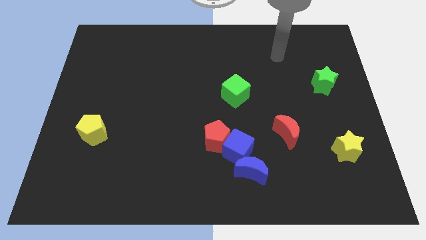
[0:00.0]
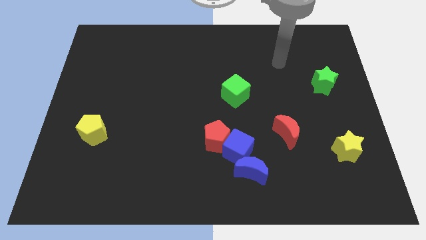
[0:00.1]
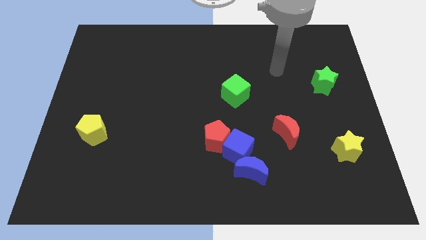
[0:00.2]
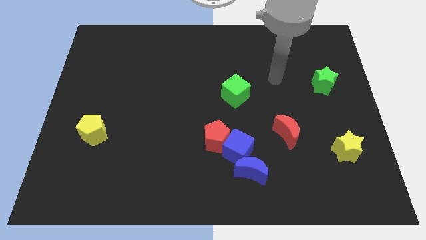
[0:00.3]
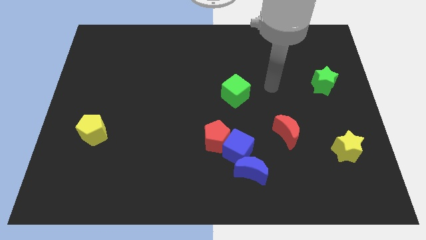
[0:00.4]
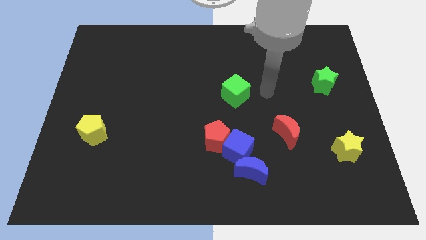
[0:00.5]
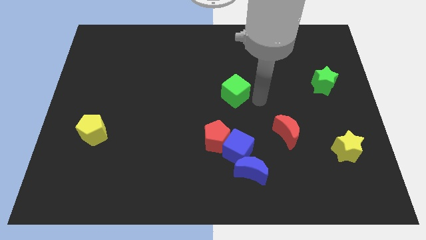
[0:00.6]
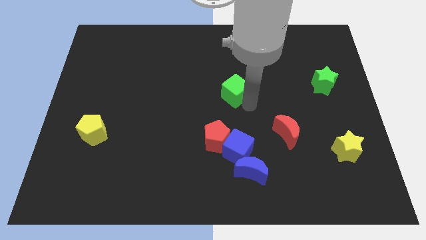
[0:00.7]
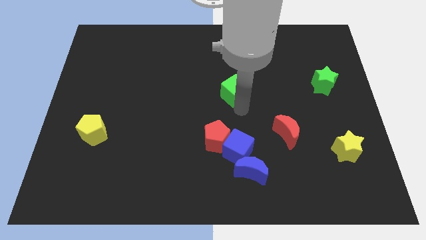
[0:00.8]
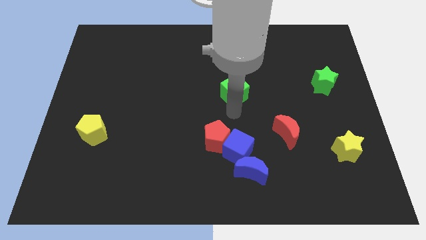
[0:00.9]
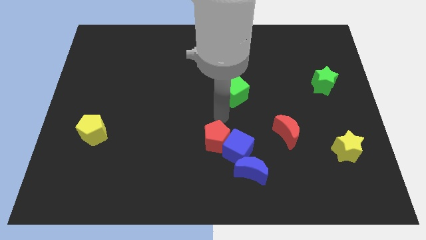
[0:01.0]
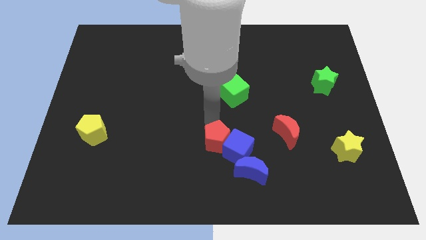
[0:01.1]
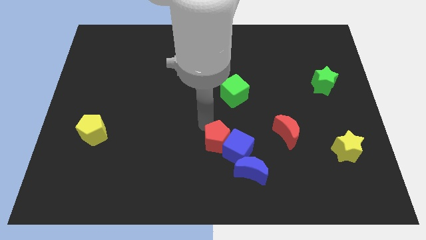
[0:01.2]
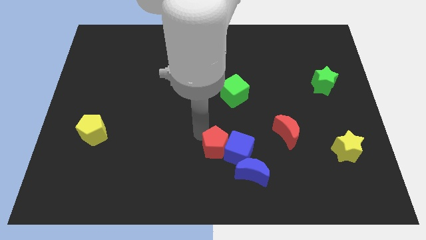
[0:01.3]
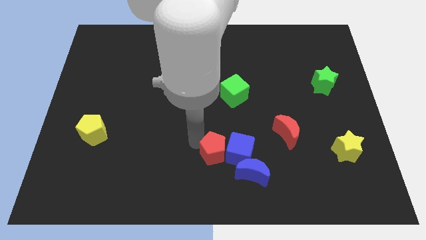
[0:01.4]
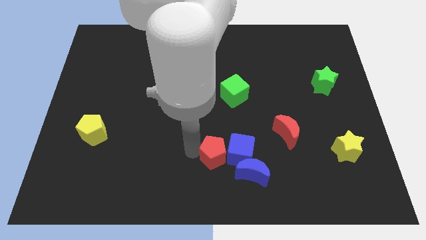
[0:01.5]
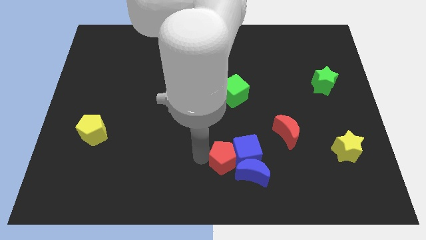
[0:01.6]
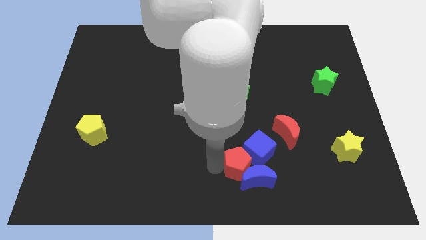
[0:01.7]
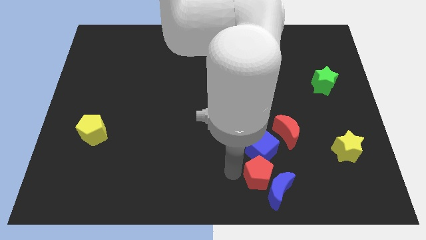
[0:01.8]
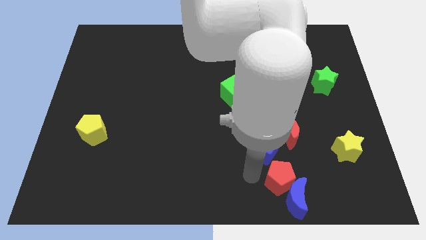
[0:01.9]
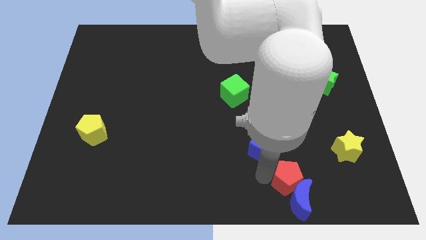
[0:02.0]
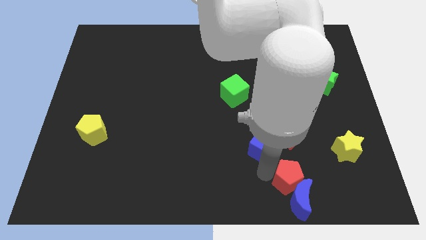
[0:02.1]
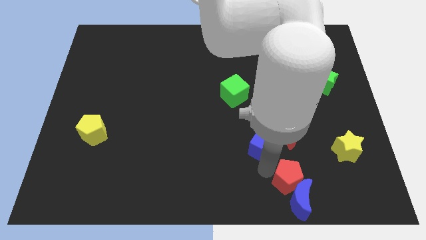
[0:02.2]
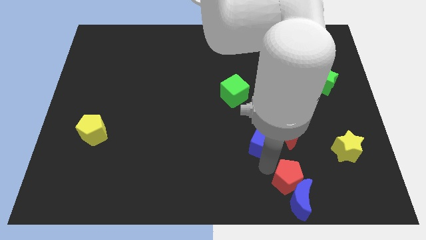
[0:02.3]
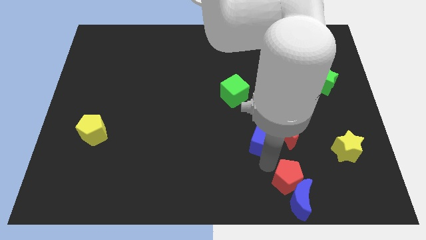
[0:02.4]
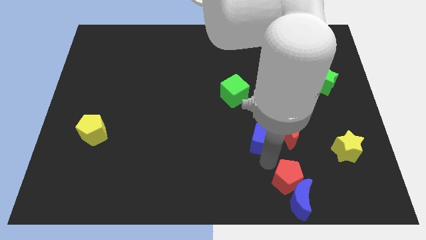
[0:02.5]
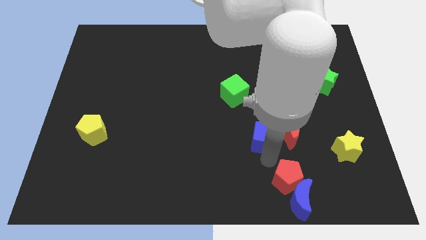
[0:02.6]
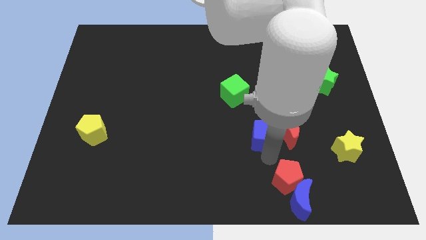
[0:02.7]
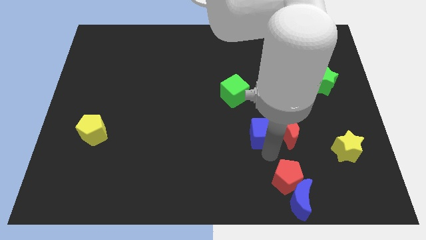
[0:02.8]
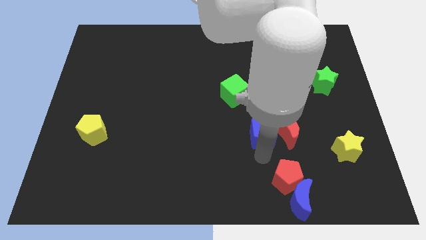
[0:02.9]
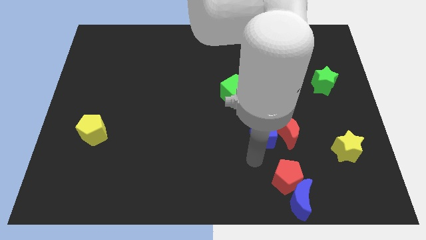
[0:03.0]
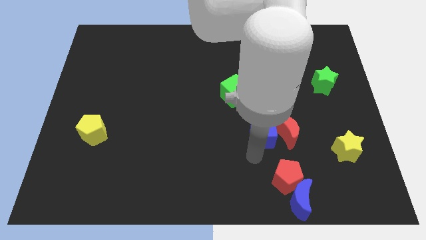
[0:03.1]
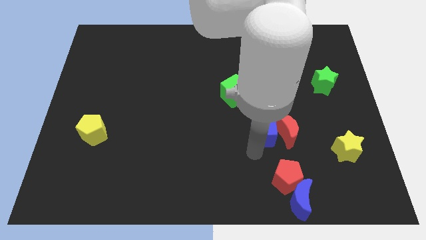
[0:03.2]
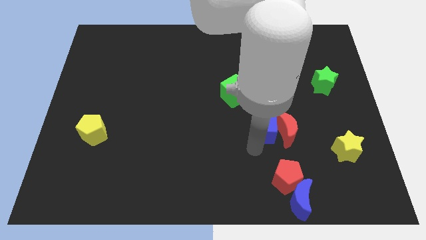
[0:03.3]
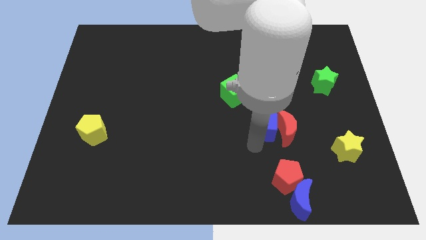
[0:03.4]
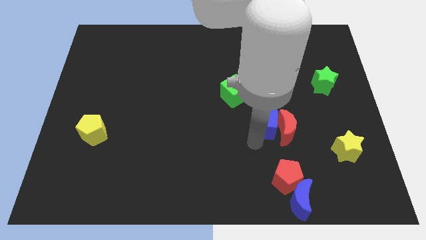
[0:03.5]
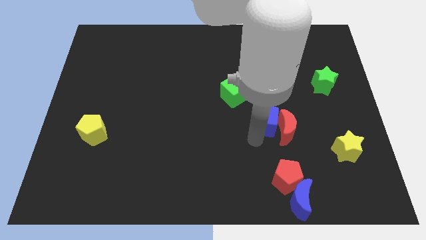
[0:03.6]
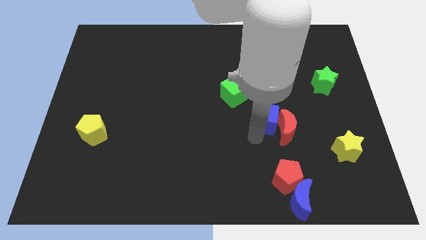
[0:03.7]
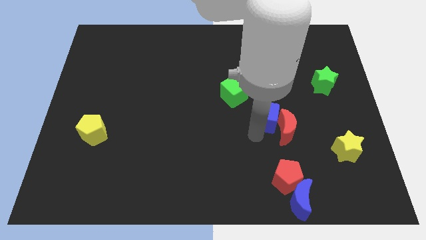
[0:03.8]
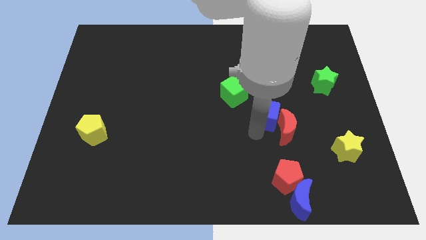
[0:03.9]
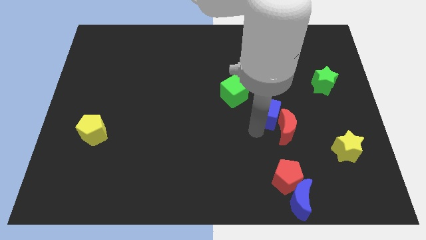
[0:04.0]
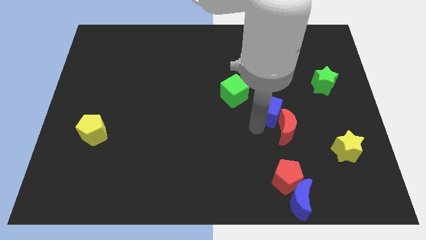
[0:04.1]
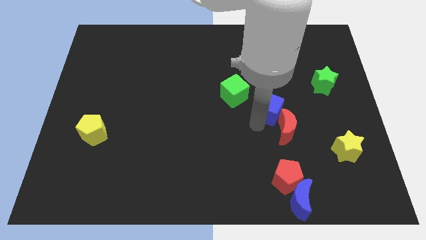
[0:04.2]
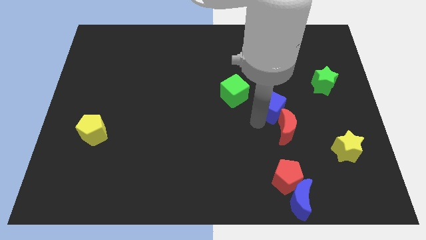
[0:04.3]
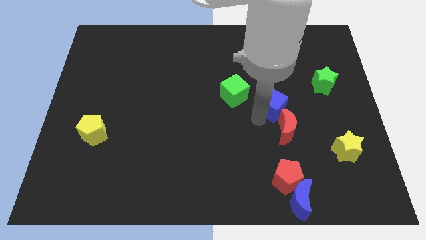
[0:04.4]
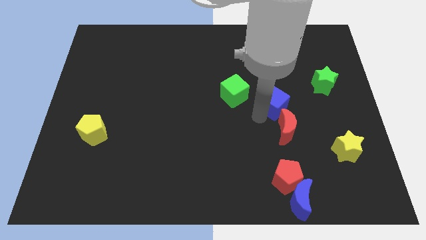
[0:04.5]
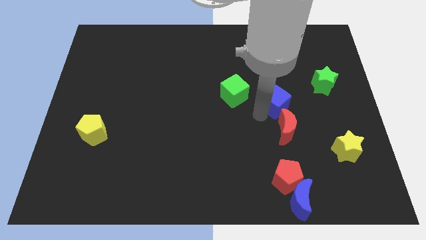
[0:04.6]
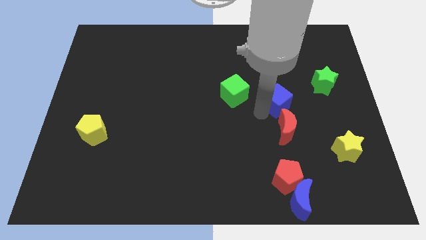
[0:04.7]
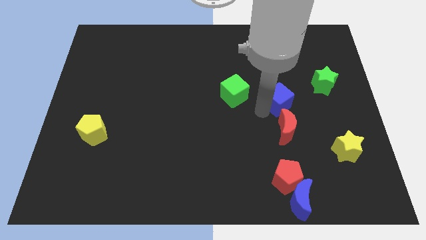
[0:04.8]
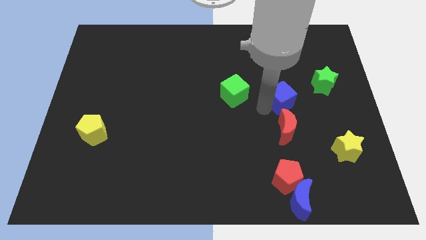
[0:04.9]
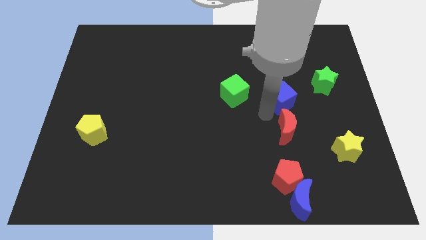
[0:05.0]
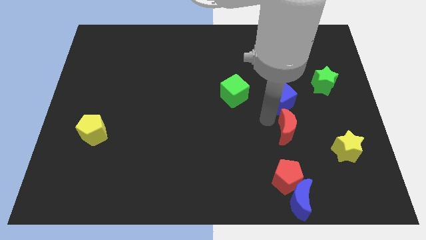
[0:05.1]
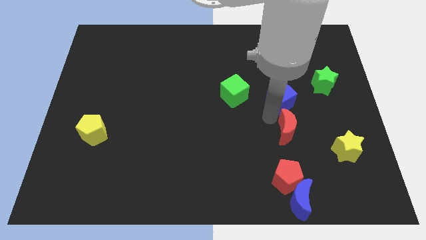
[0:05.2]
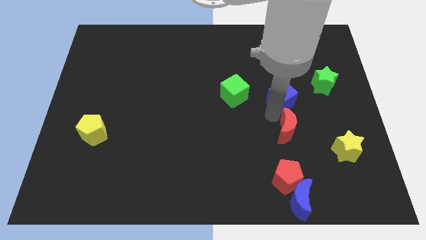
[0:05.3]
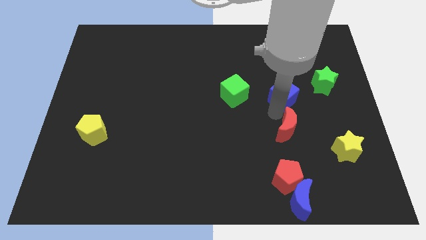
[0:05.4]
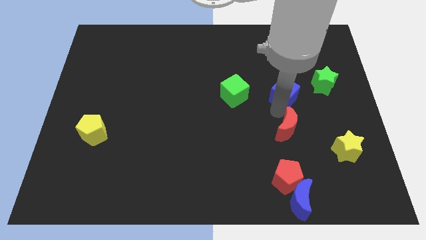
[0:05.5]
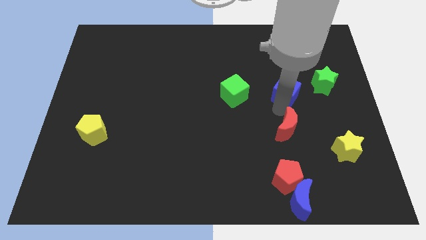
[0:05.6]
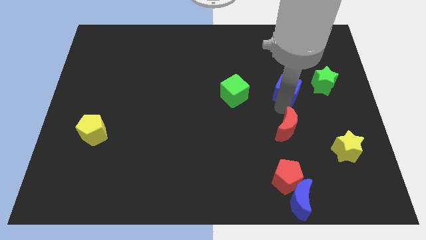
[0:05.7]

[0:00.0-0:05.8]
push the blue cube up and to the right diagonally

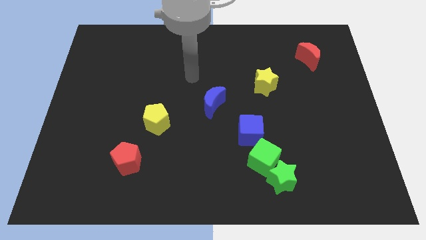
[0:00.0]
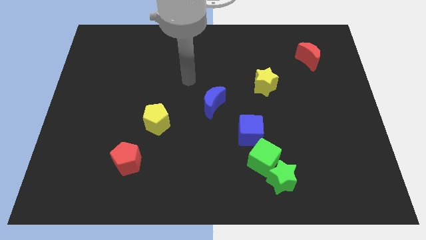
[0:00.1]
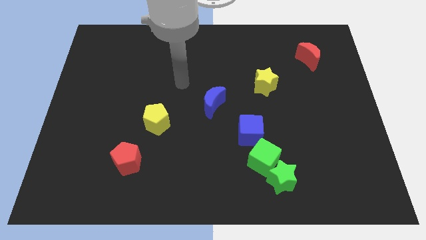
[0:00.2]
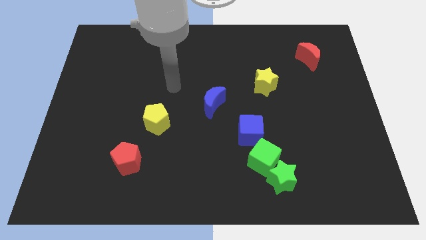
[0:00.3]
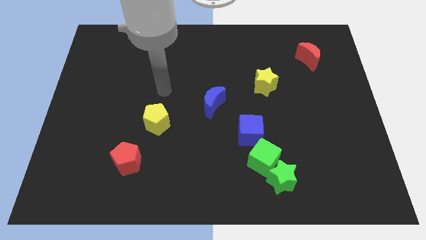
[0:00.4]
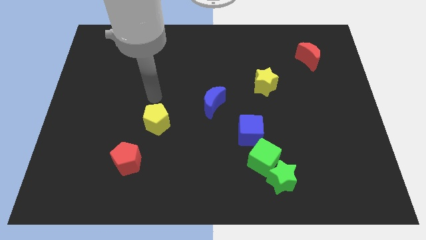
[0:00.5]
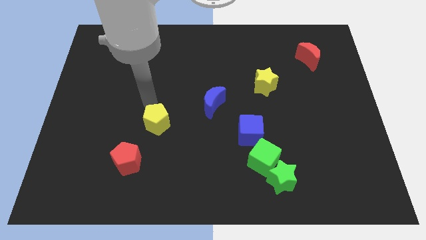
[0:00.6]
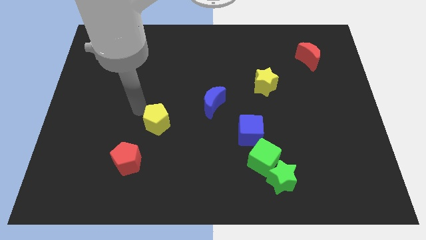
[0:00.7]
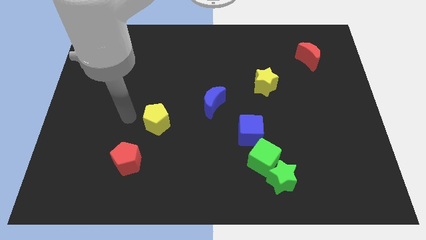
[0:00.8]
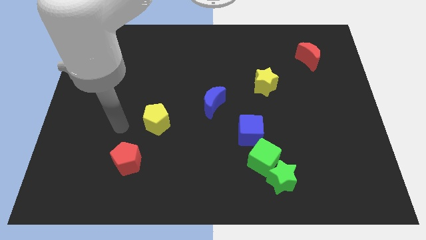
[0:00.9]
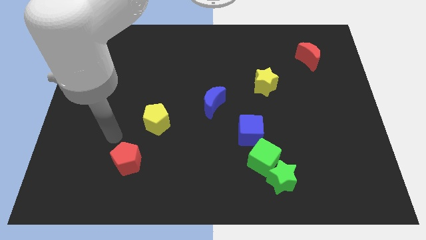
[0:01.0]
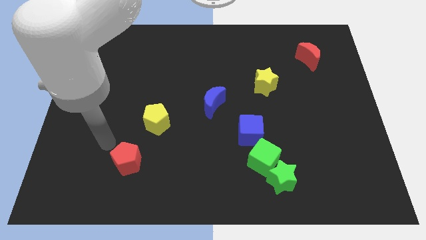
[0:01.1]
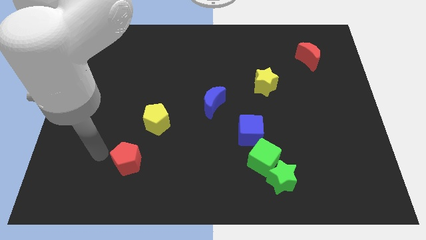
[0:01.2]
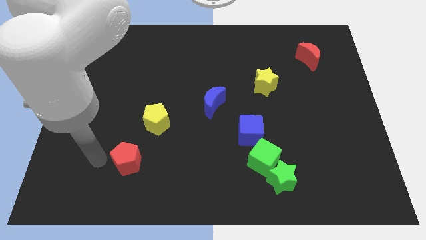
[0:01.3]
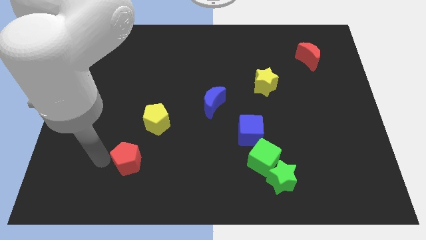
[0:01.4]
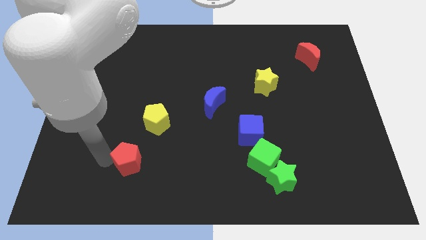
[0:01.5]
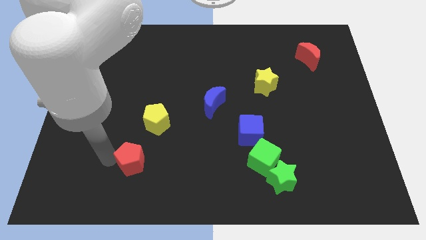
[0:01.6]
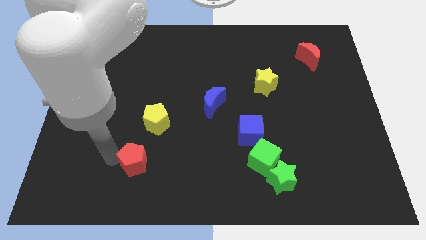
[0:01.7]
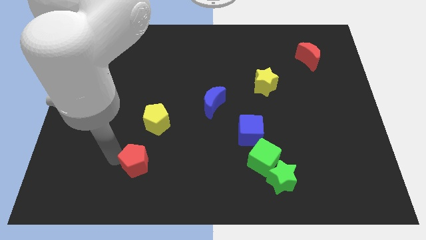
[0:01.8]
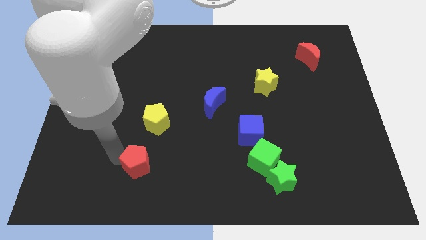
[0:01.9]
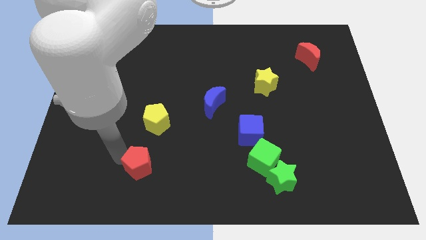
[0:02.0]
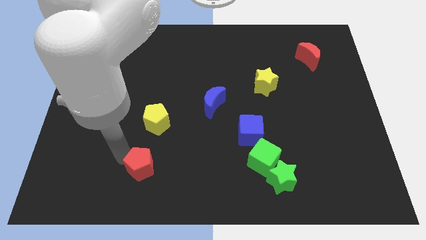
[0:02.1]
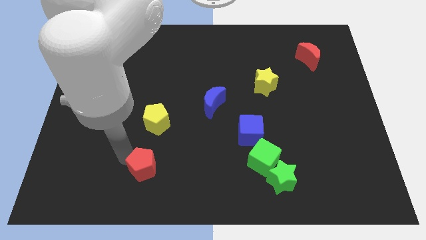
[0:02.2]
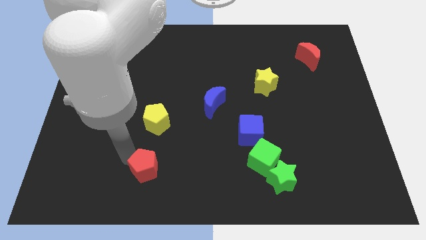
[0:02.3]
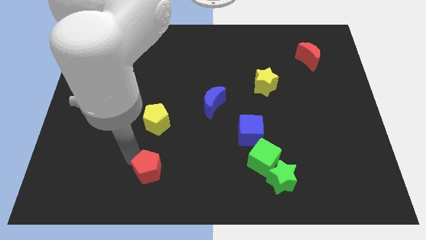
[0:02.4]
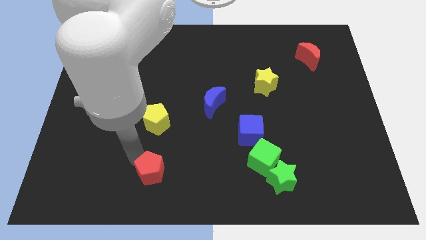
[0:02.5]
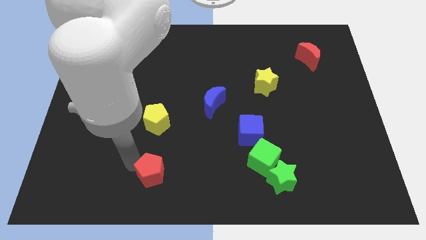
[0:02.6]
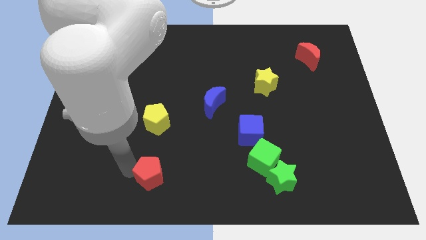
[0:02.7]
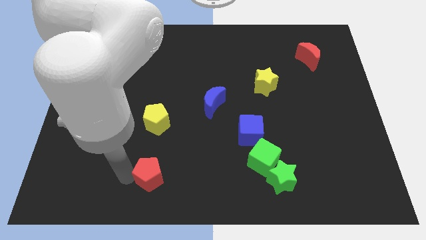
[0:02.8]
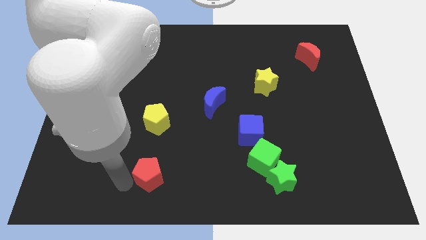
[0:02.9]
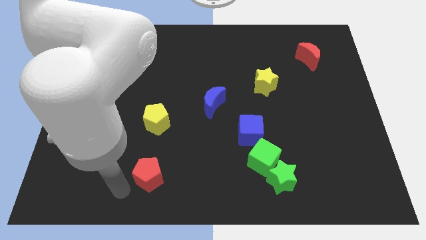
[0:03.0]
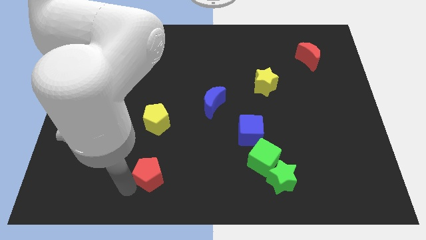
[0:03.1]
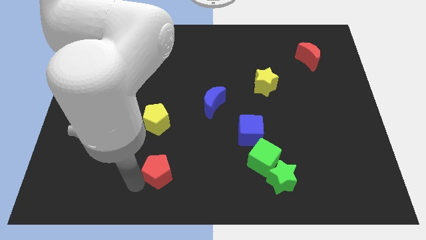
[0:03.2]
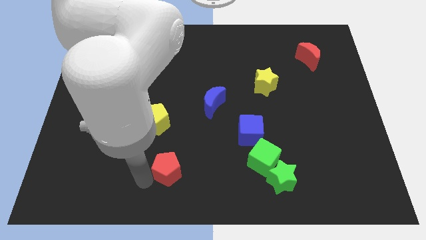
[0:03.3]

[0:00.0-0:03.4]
slide the red pentagon a little right
